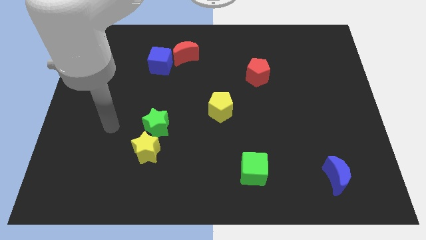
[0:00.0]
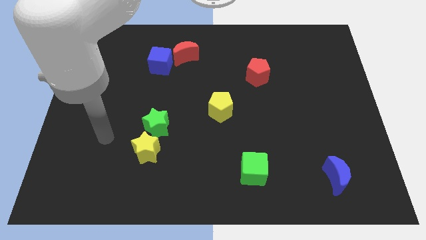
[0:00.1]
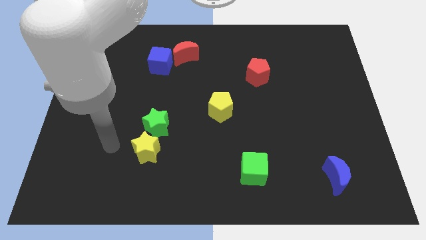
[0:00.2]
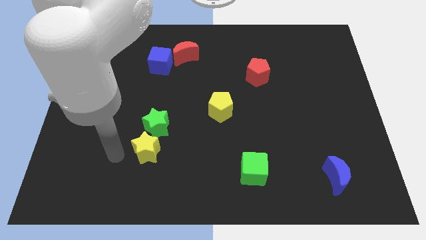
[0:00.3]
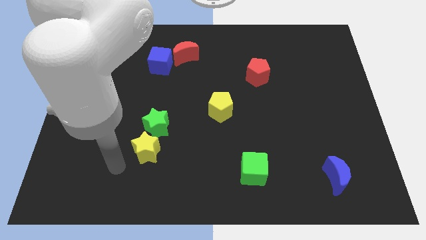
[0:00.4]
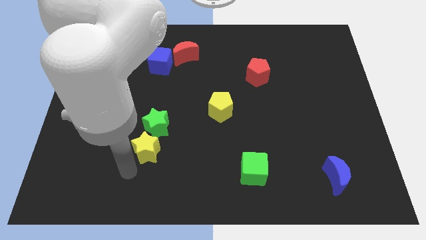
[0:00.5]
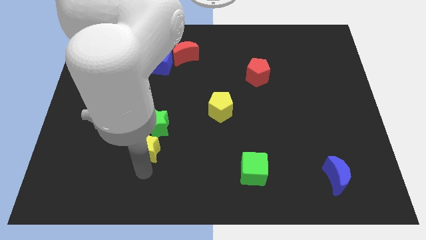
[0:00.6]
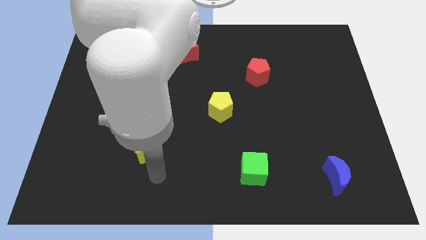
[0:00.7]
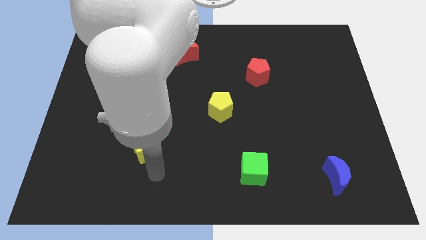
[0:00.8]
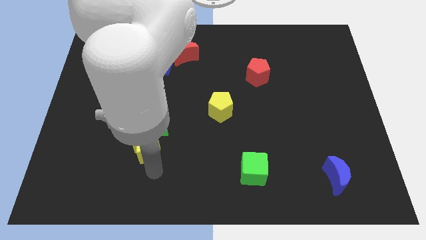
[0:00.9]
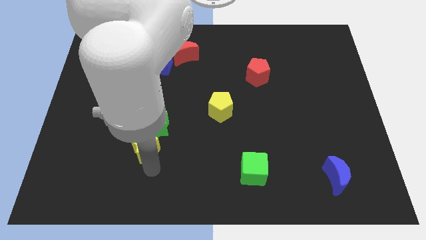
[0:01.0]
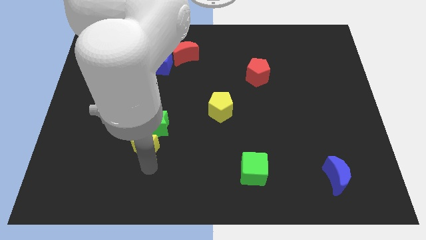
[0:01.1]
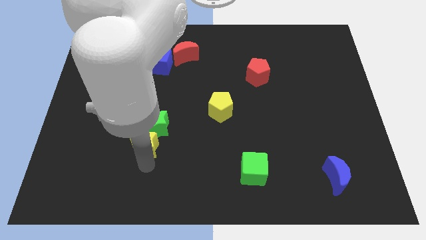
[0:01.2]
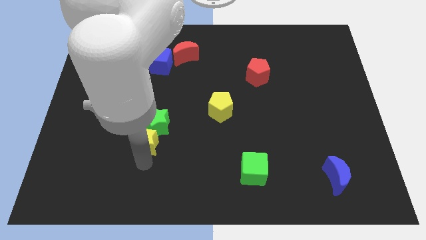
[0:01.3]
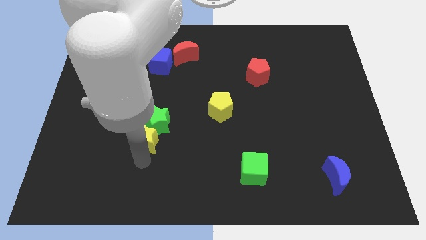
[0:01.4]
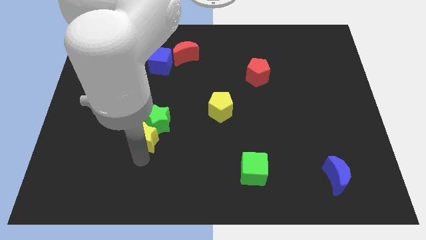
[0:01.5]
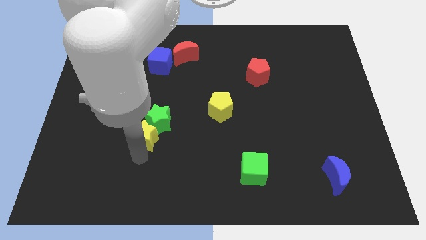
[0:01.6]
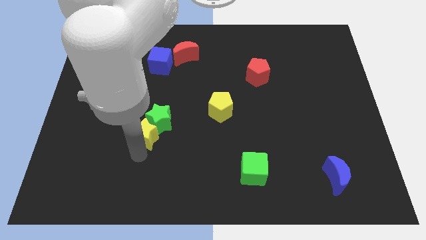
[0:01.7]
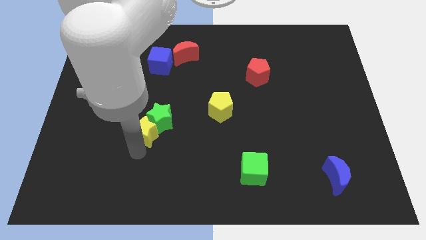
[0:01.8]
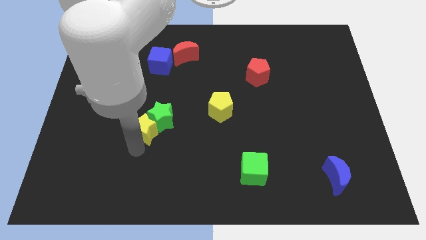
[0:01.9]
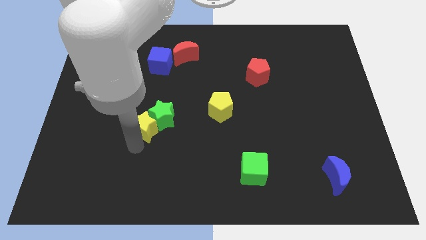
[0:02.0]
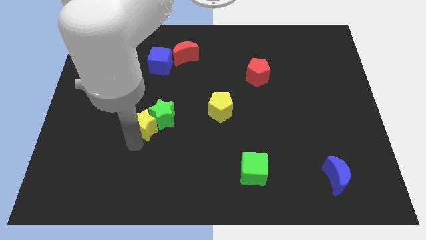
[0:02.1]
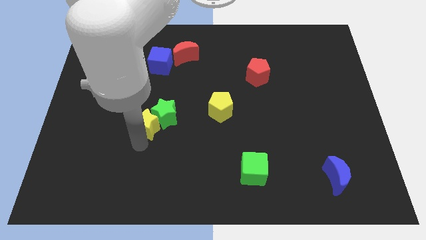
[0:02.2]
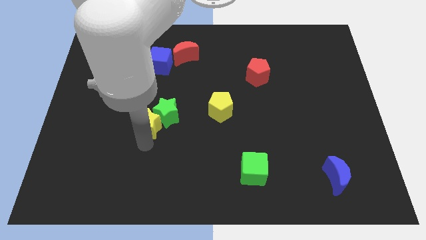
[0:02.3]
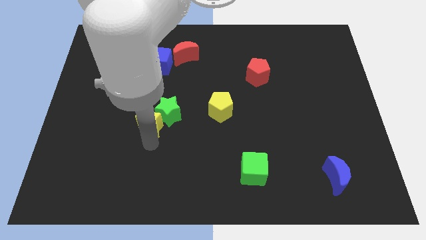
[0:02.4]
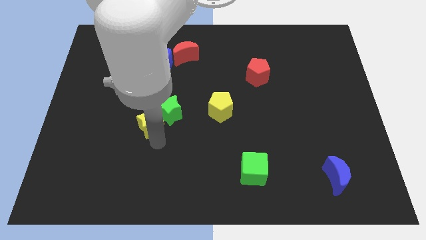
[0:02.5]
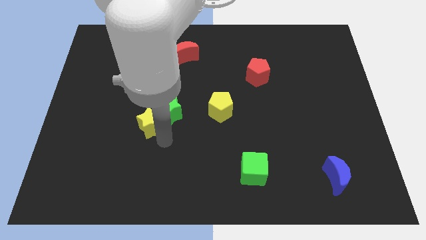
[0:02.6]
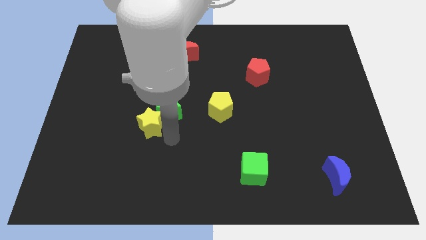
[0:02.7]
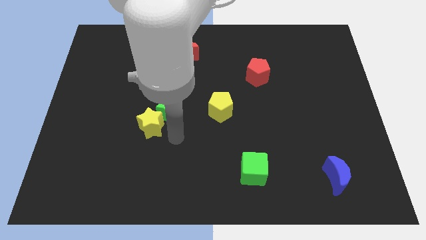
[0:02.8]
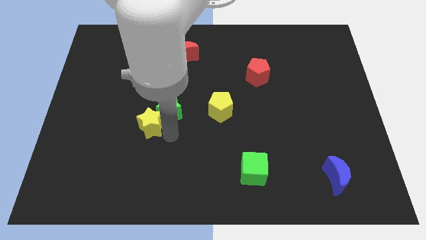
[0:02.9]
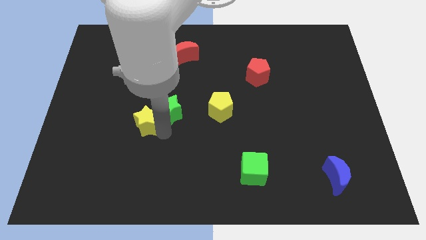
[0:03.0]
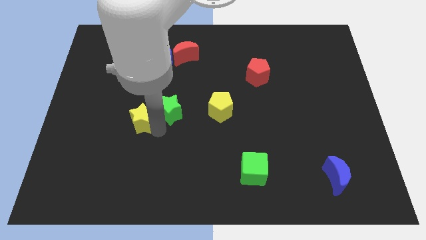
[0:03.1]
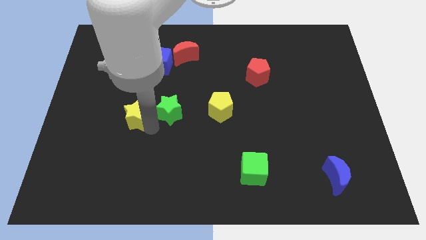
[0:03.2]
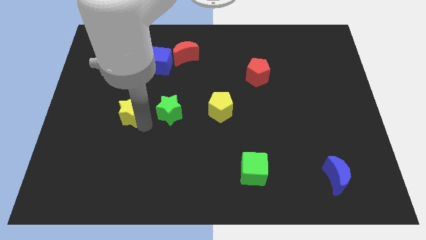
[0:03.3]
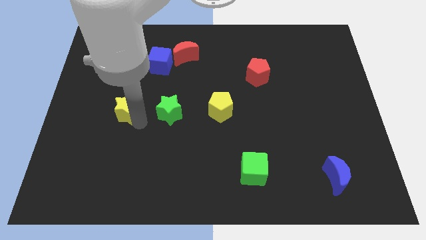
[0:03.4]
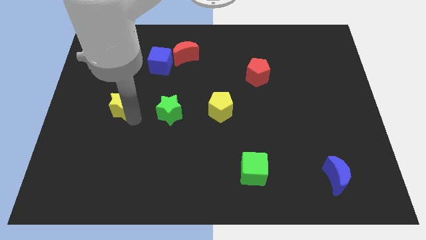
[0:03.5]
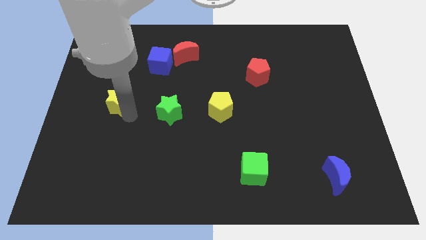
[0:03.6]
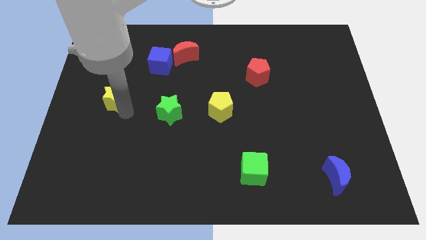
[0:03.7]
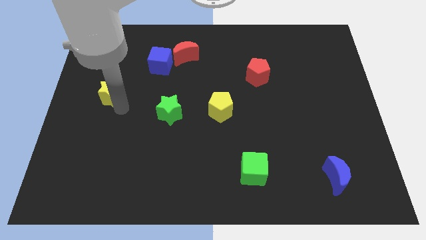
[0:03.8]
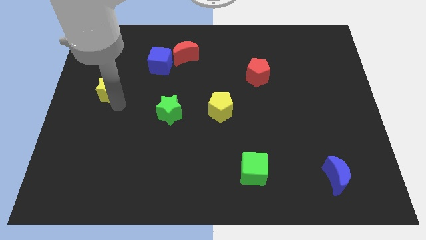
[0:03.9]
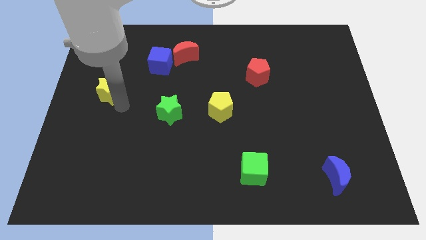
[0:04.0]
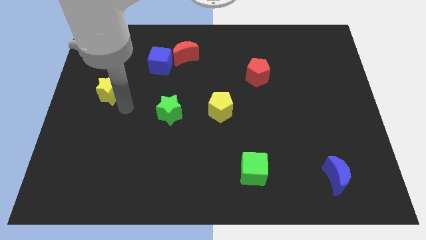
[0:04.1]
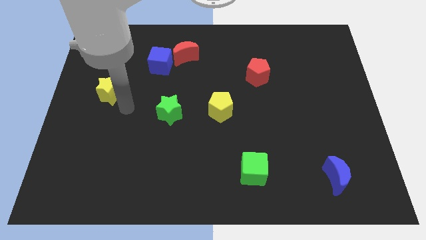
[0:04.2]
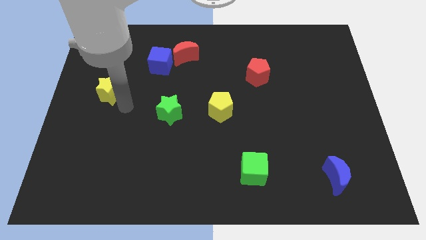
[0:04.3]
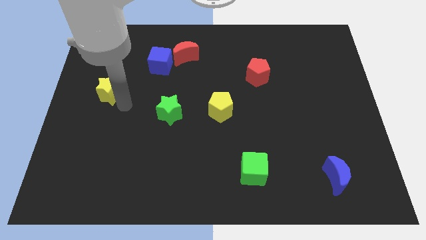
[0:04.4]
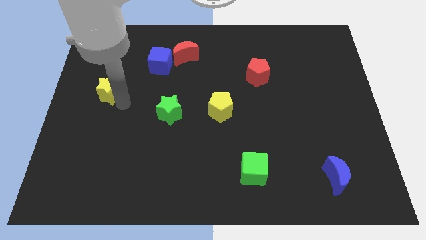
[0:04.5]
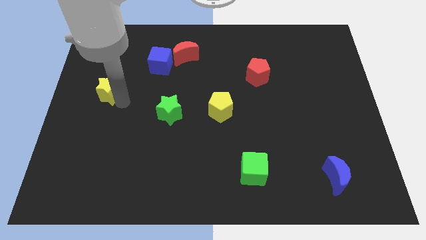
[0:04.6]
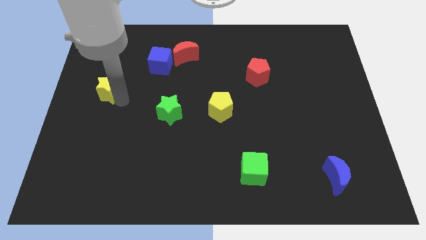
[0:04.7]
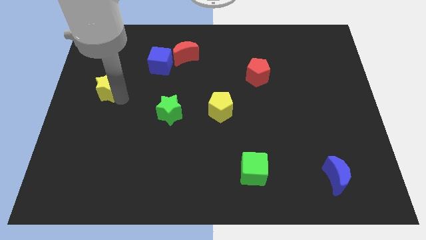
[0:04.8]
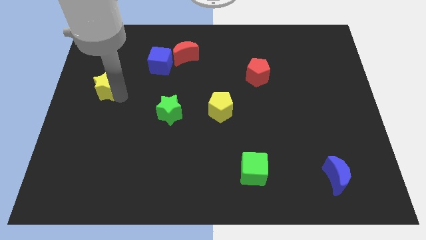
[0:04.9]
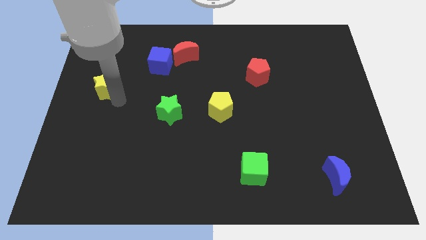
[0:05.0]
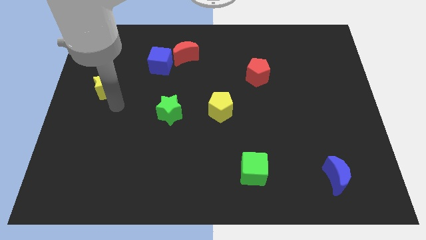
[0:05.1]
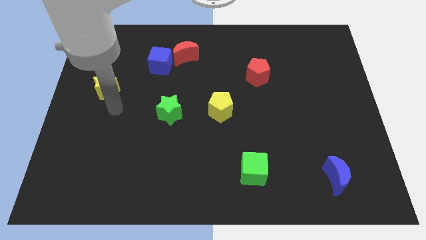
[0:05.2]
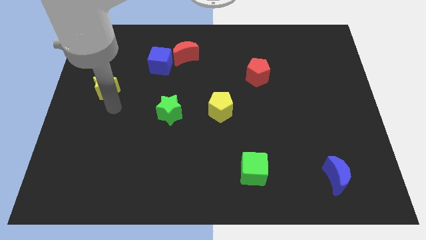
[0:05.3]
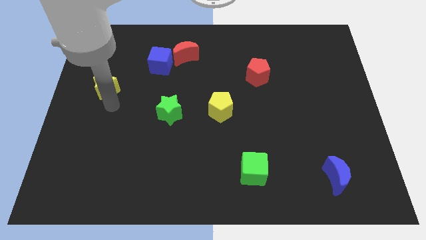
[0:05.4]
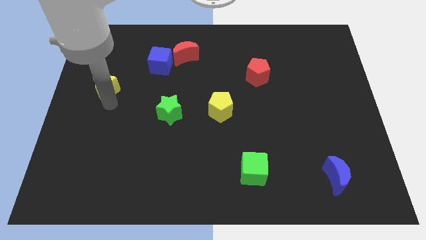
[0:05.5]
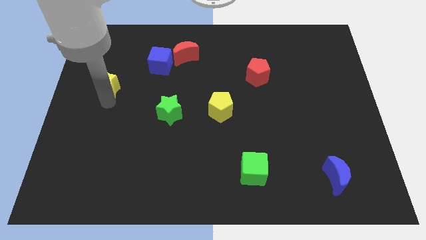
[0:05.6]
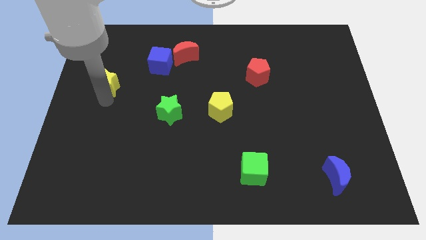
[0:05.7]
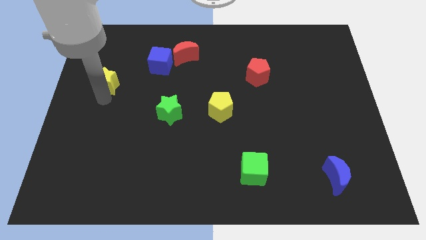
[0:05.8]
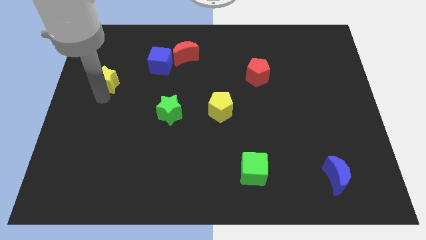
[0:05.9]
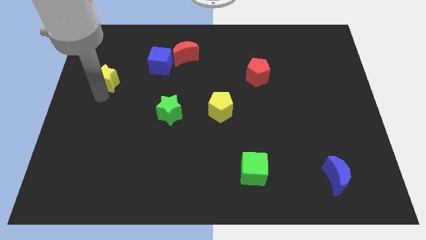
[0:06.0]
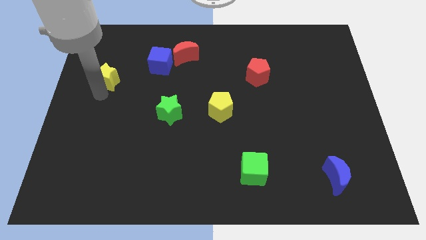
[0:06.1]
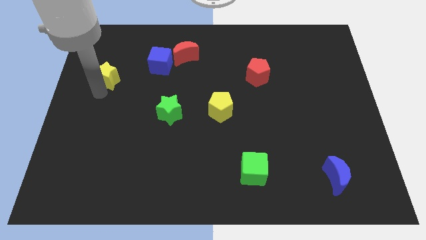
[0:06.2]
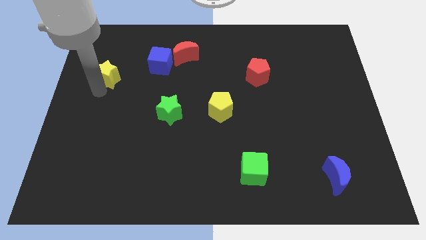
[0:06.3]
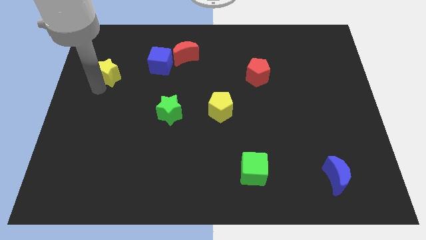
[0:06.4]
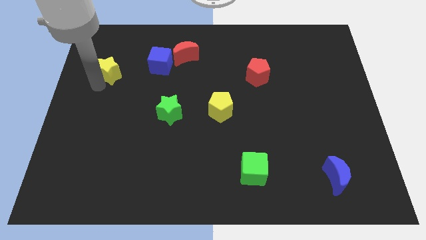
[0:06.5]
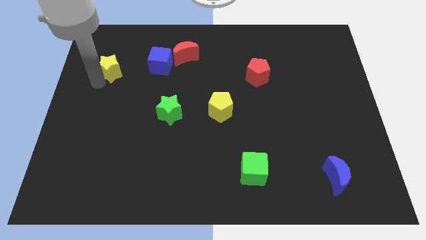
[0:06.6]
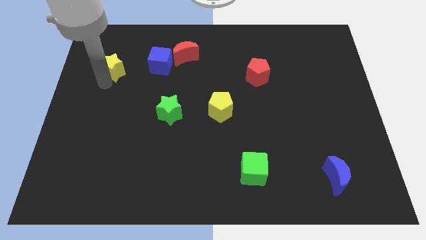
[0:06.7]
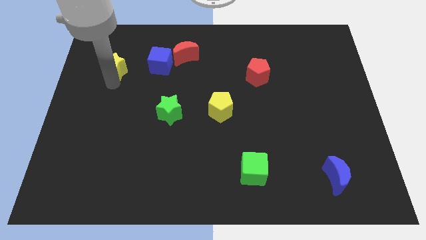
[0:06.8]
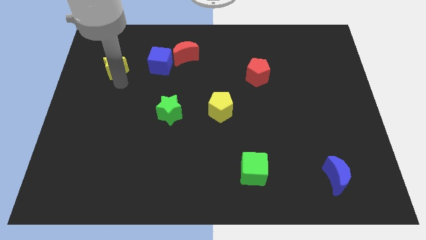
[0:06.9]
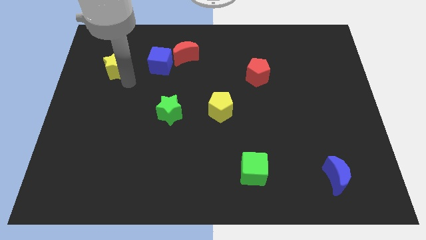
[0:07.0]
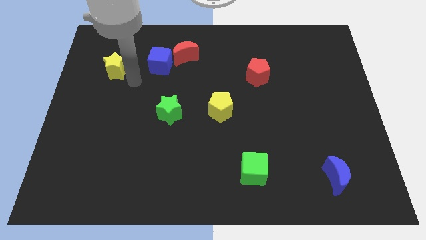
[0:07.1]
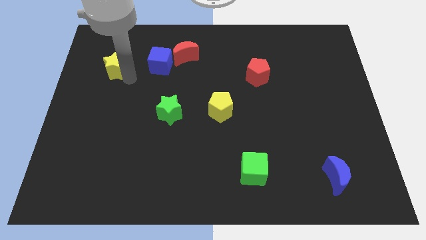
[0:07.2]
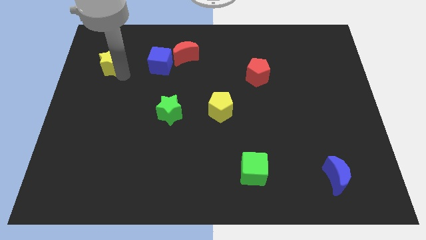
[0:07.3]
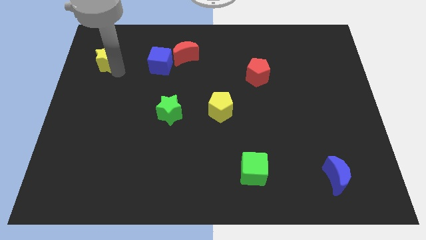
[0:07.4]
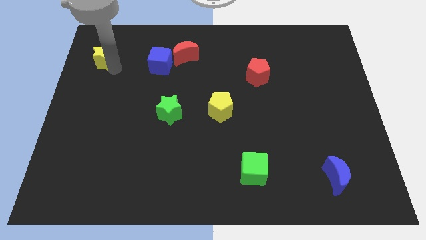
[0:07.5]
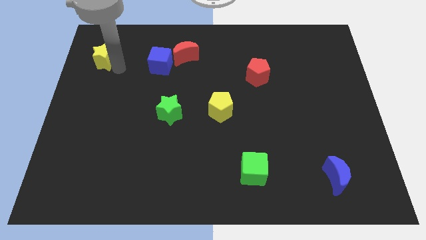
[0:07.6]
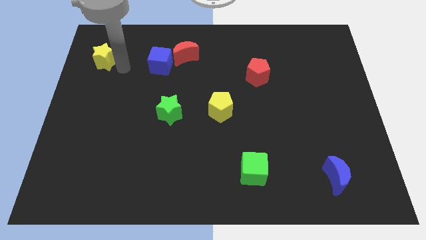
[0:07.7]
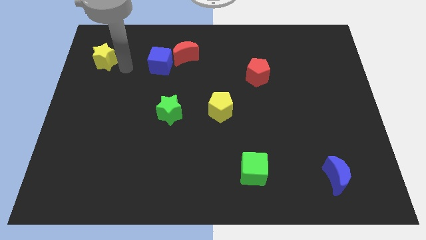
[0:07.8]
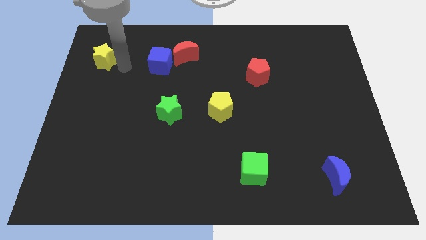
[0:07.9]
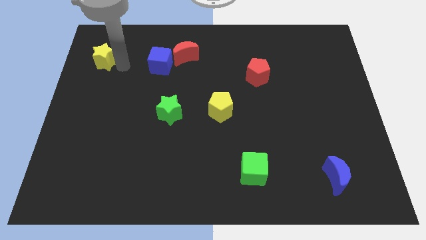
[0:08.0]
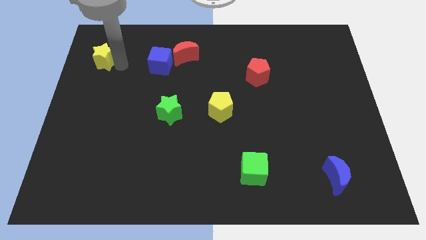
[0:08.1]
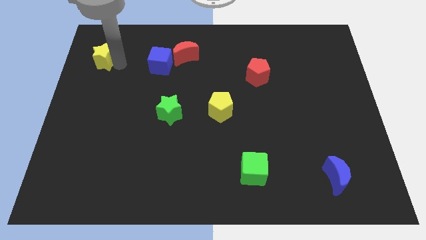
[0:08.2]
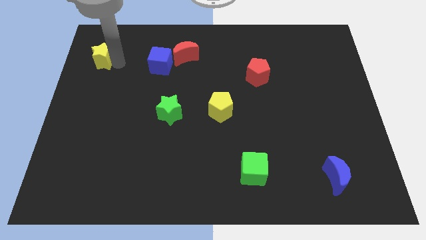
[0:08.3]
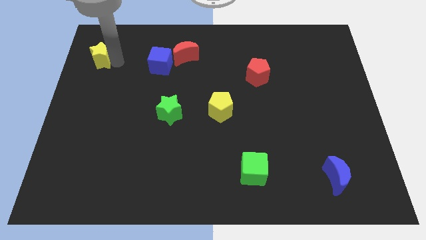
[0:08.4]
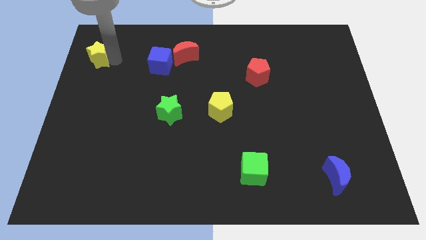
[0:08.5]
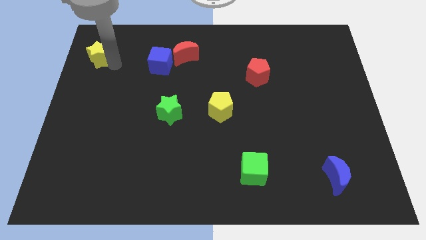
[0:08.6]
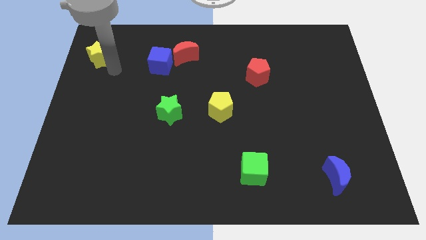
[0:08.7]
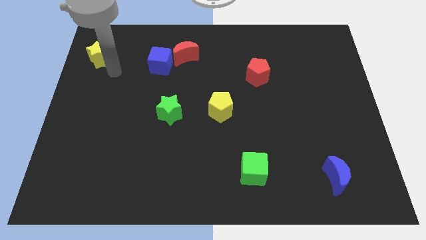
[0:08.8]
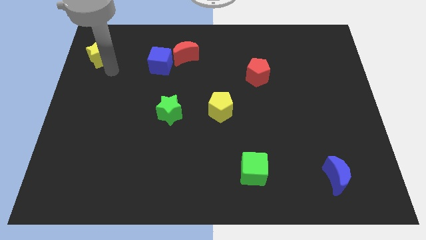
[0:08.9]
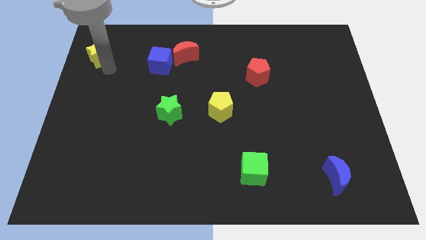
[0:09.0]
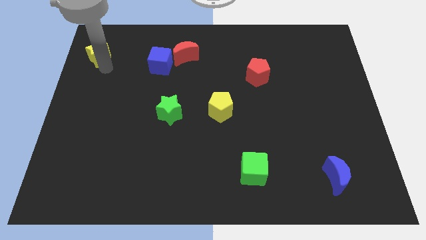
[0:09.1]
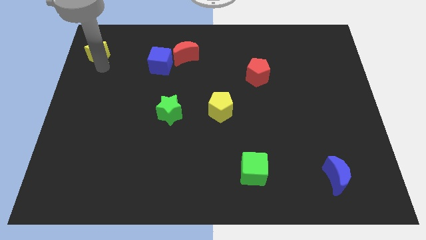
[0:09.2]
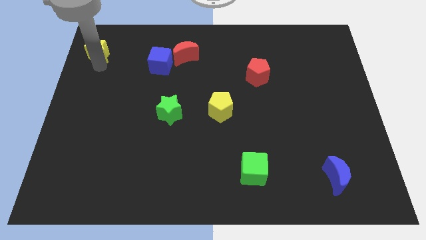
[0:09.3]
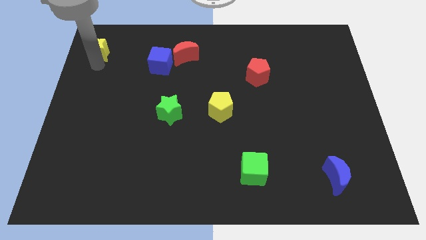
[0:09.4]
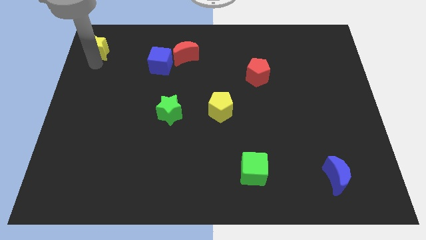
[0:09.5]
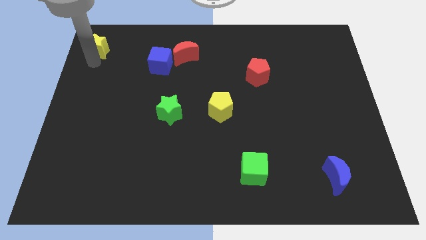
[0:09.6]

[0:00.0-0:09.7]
slide the yellow star to the top left of the board
